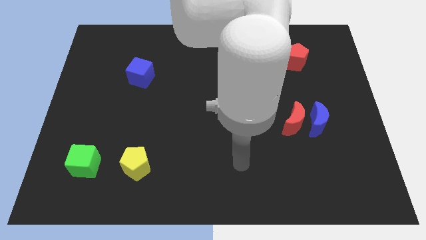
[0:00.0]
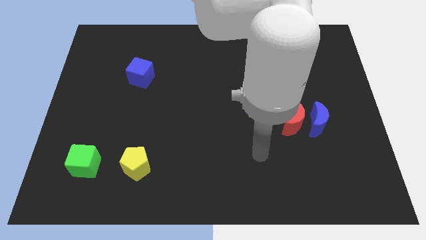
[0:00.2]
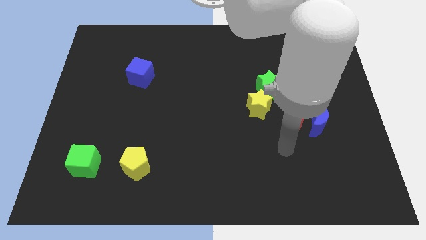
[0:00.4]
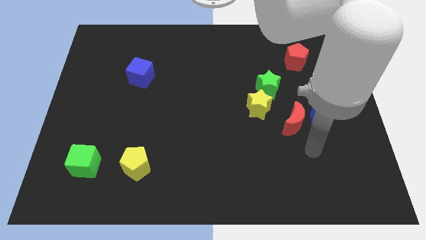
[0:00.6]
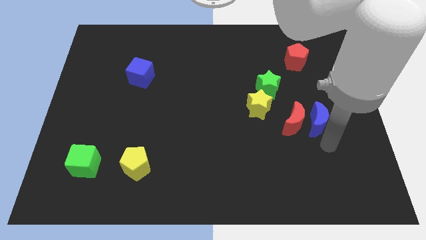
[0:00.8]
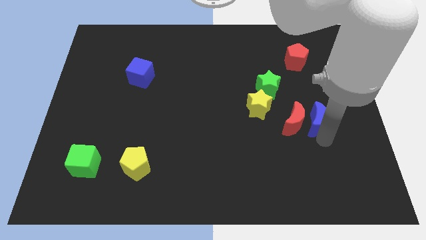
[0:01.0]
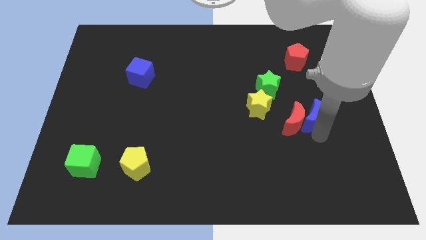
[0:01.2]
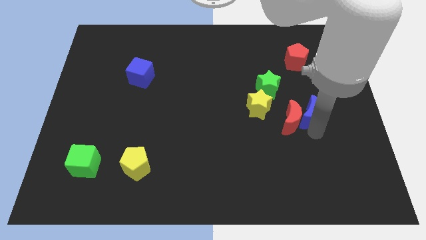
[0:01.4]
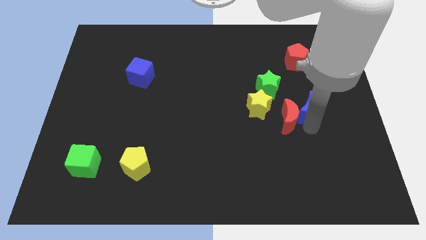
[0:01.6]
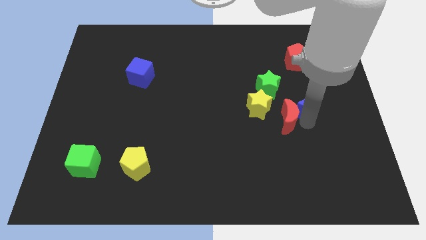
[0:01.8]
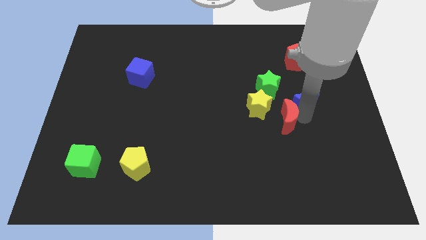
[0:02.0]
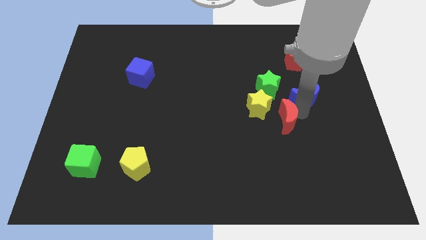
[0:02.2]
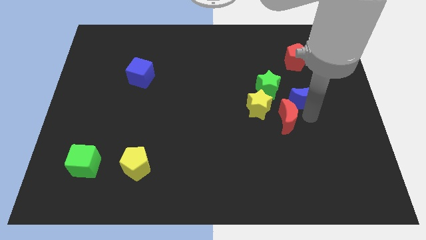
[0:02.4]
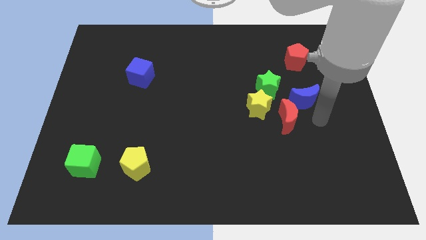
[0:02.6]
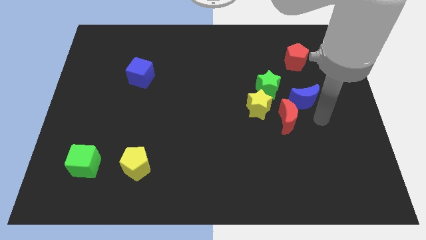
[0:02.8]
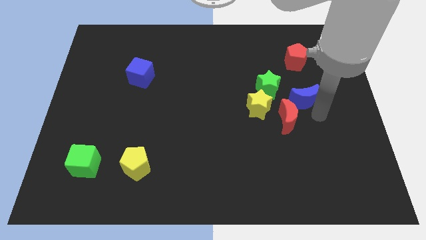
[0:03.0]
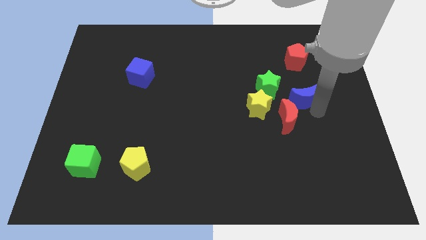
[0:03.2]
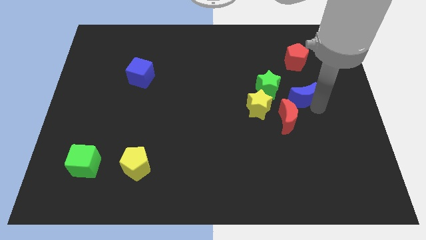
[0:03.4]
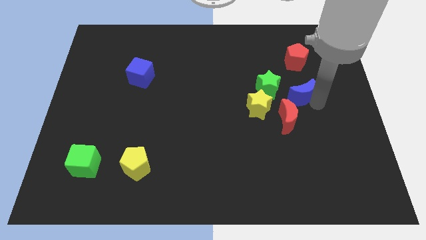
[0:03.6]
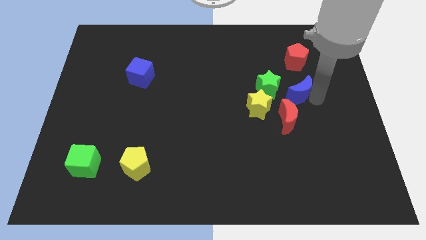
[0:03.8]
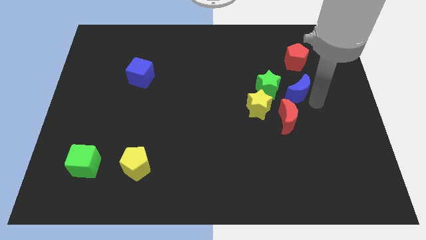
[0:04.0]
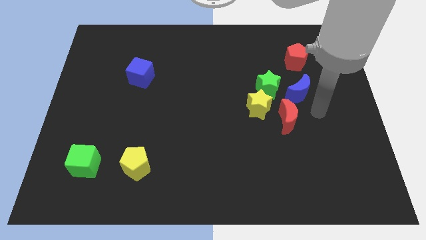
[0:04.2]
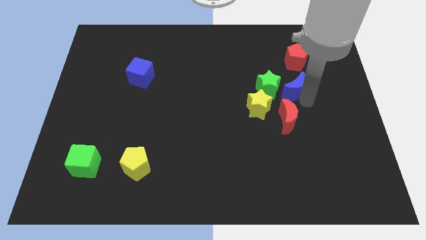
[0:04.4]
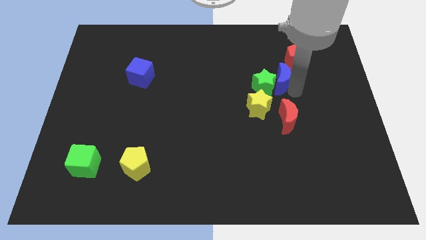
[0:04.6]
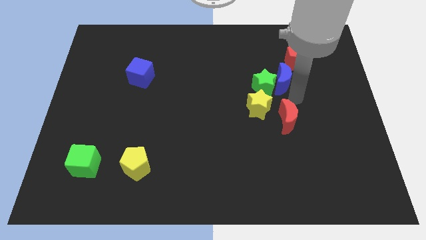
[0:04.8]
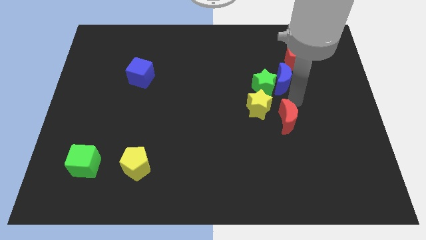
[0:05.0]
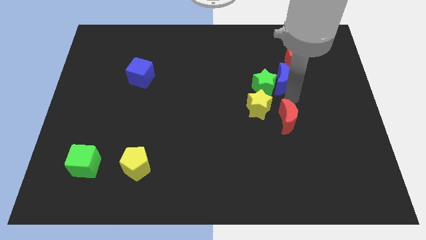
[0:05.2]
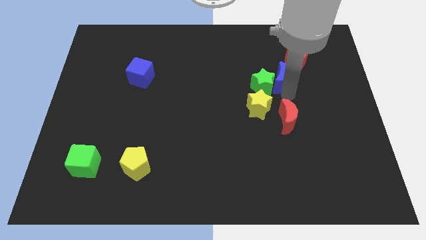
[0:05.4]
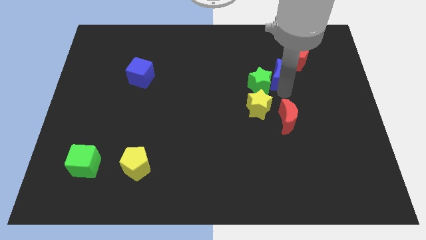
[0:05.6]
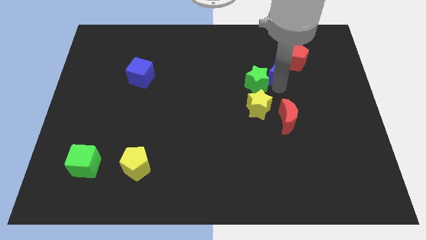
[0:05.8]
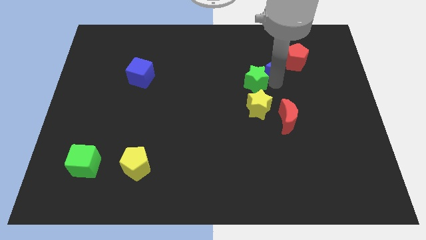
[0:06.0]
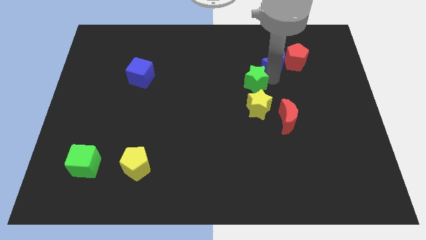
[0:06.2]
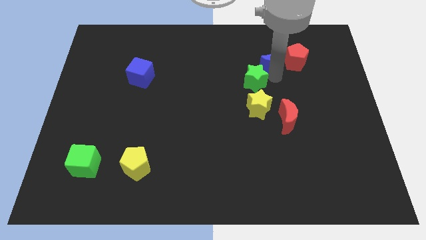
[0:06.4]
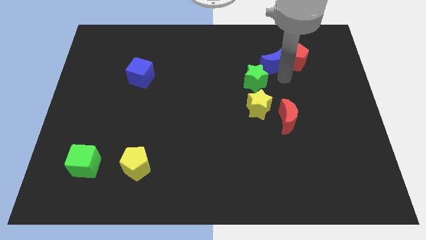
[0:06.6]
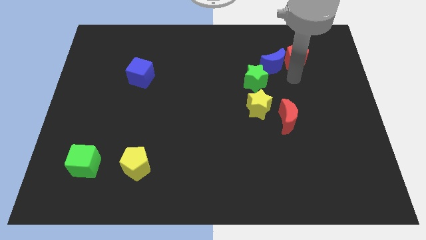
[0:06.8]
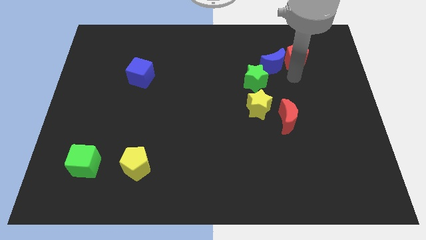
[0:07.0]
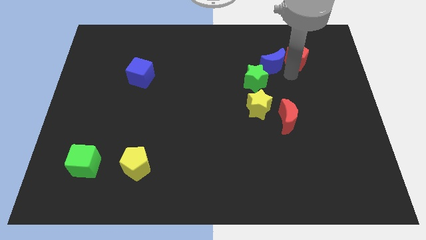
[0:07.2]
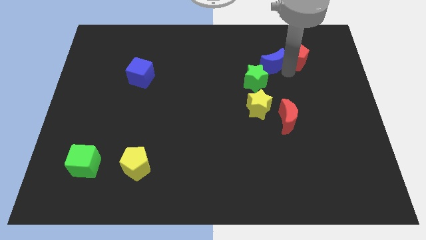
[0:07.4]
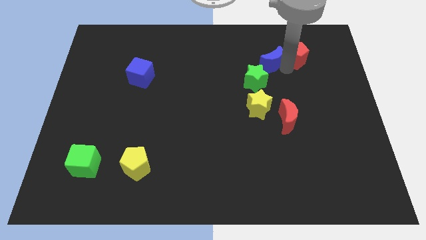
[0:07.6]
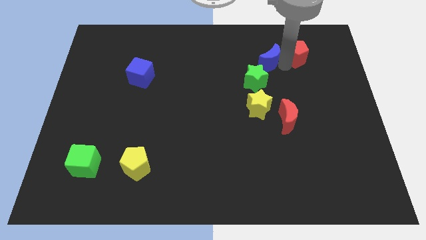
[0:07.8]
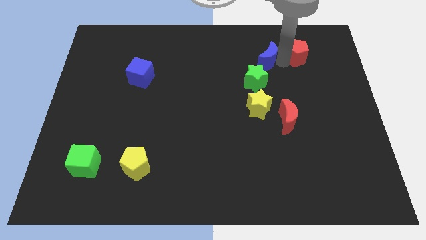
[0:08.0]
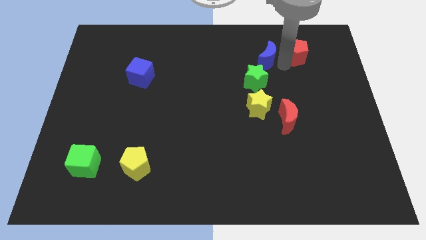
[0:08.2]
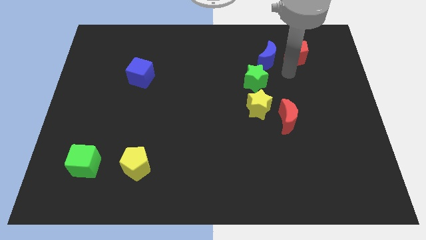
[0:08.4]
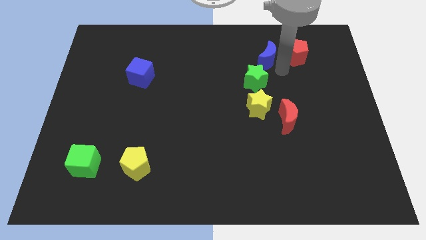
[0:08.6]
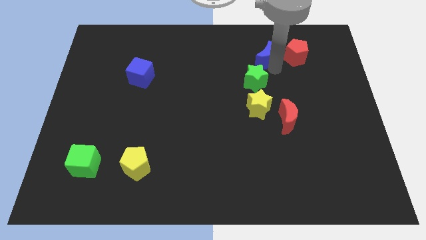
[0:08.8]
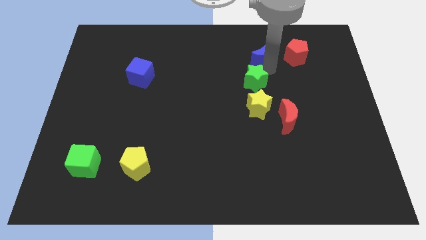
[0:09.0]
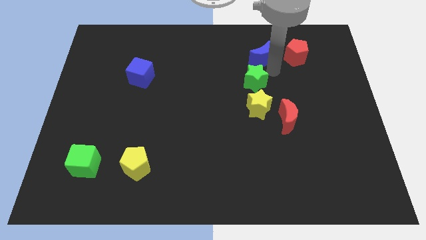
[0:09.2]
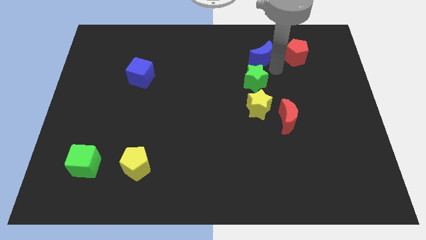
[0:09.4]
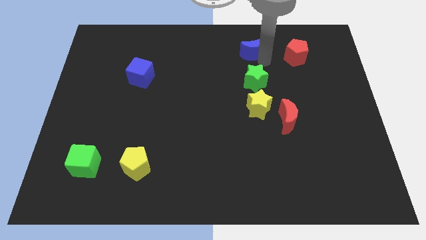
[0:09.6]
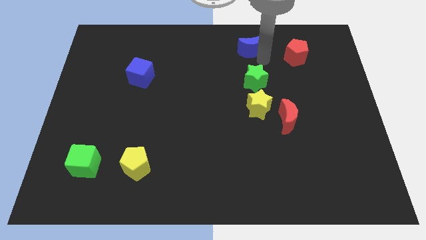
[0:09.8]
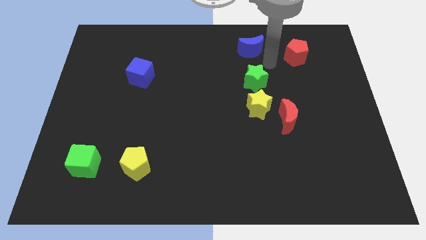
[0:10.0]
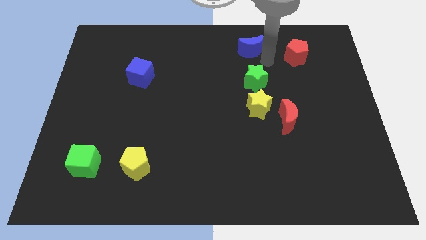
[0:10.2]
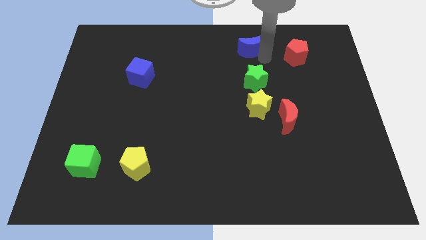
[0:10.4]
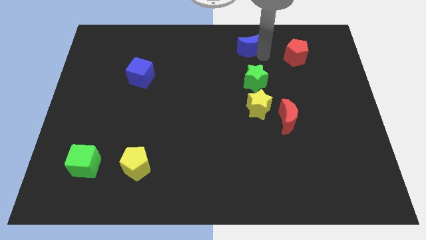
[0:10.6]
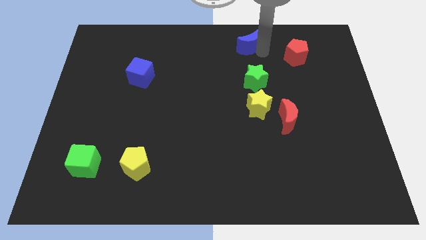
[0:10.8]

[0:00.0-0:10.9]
push the blue moon to the top

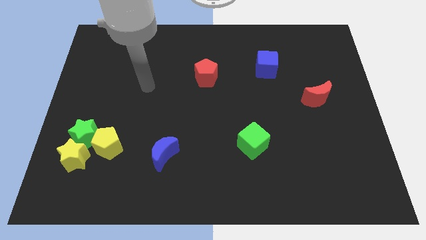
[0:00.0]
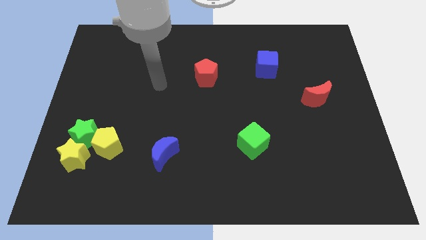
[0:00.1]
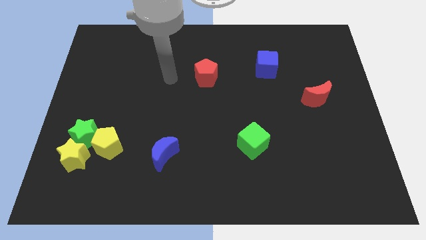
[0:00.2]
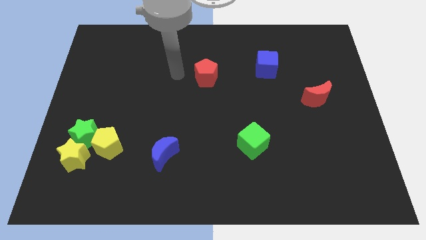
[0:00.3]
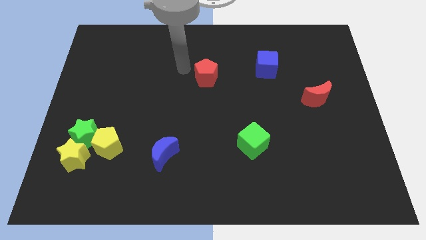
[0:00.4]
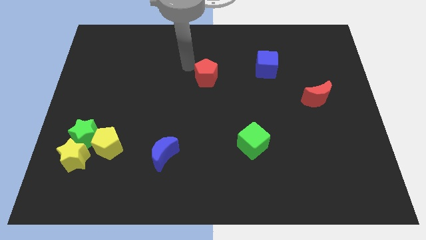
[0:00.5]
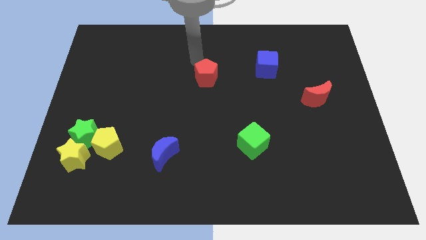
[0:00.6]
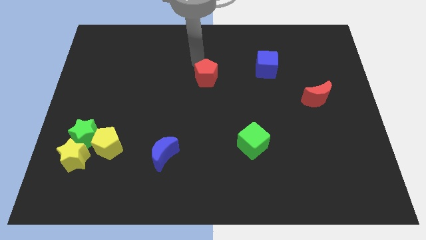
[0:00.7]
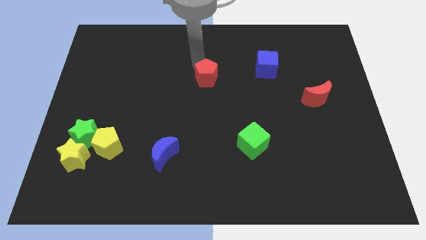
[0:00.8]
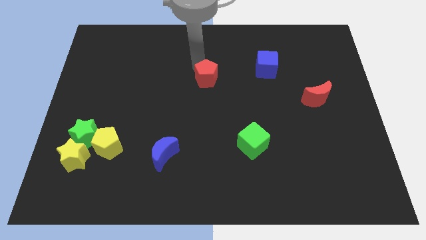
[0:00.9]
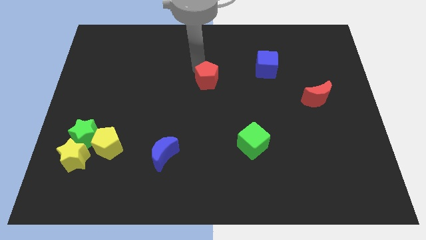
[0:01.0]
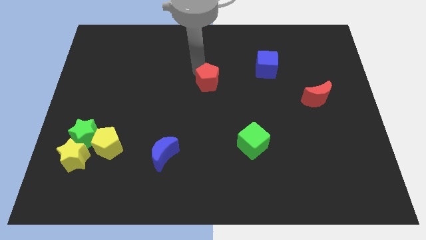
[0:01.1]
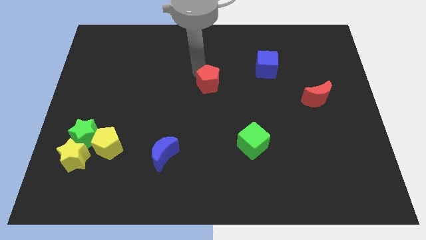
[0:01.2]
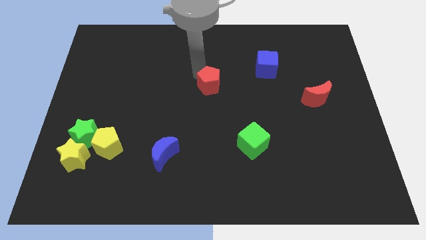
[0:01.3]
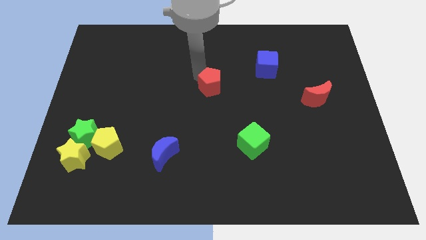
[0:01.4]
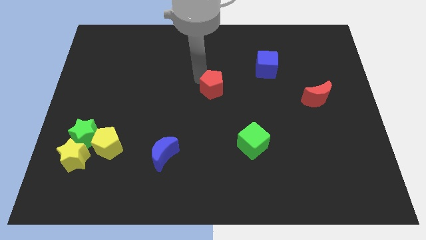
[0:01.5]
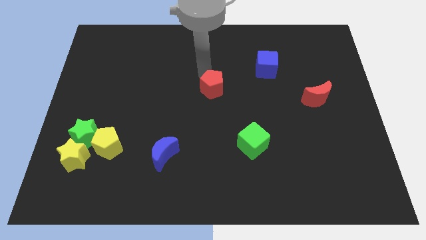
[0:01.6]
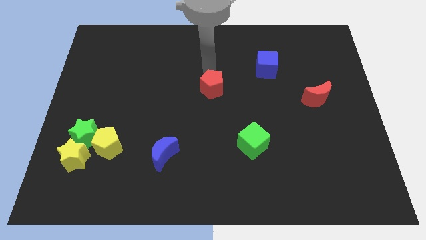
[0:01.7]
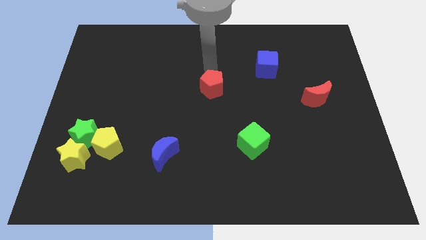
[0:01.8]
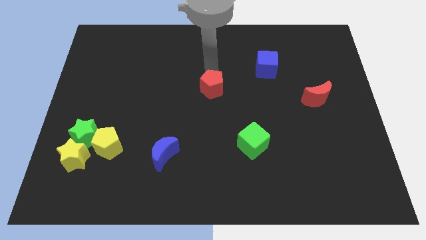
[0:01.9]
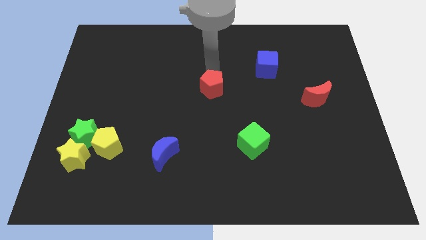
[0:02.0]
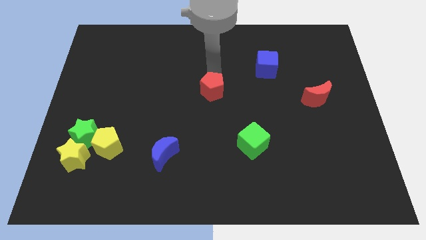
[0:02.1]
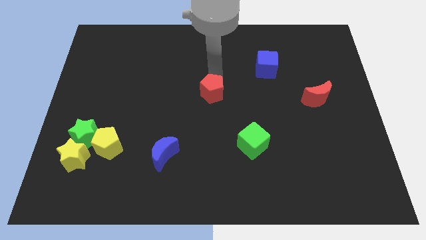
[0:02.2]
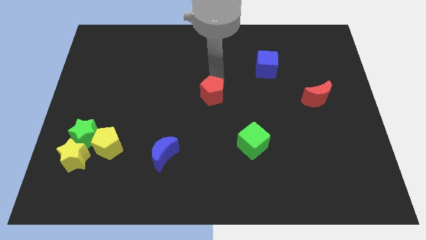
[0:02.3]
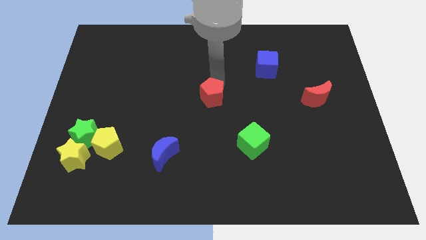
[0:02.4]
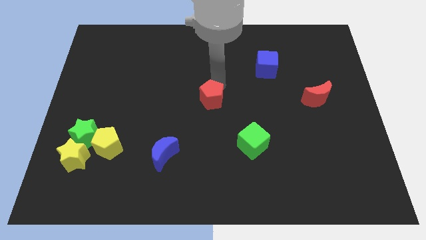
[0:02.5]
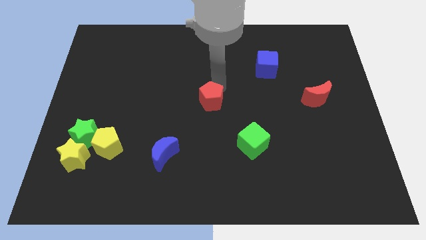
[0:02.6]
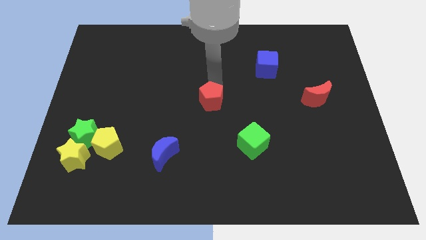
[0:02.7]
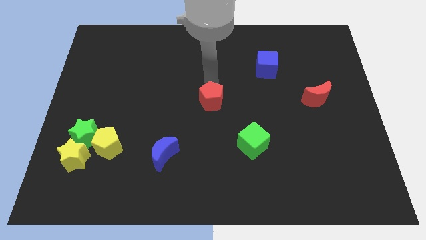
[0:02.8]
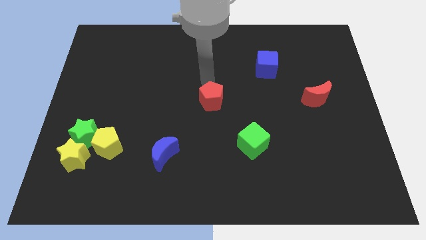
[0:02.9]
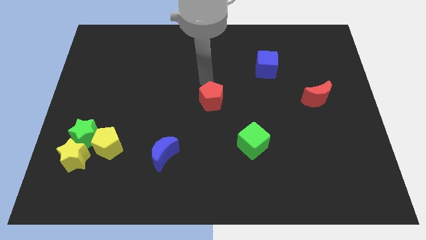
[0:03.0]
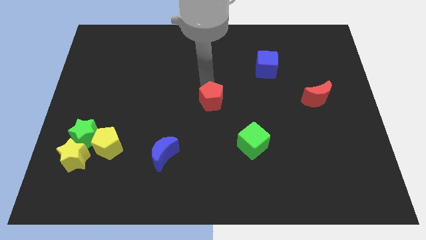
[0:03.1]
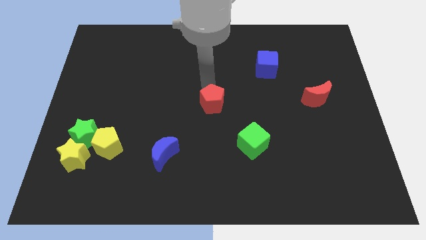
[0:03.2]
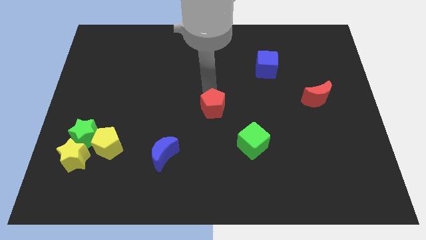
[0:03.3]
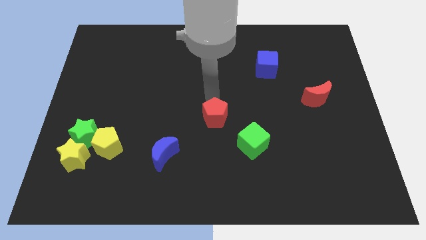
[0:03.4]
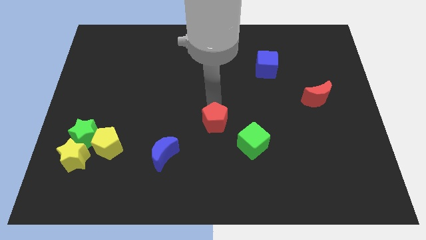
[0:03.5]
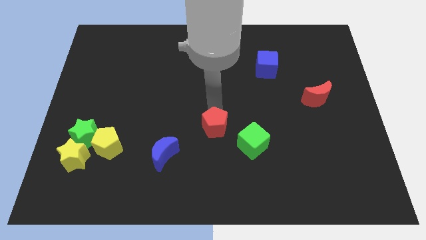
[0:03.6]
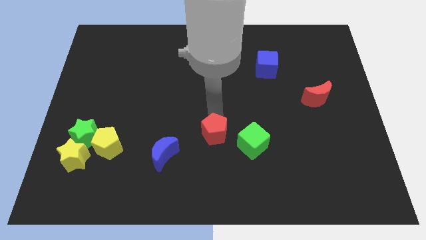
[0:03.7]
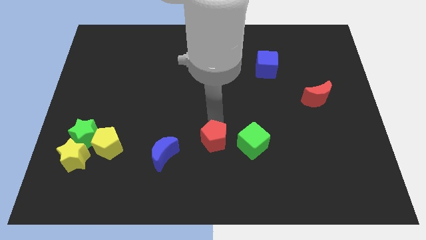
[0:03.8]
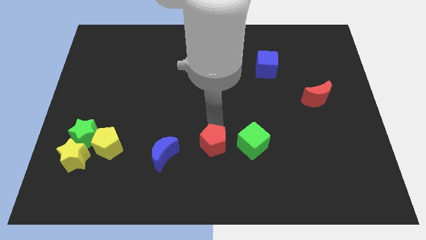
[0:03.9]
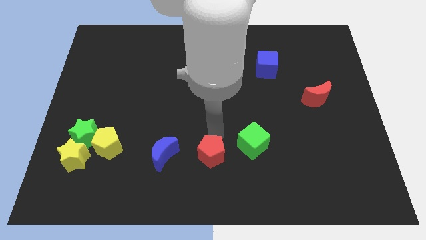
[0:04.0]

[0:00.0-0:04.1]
move the red pentagon to the bottom
